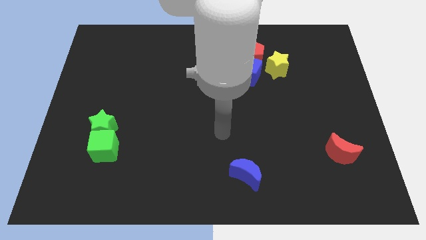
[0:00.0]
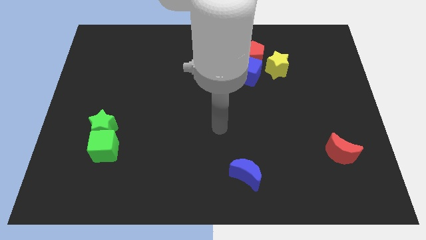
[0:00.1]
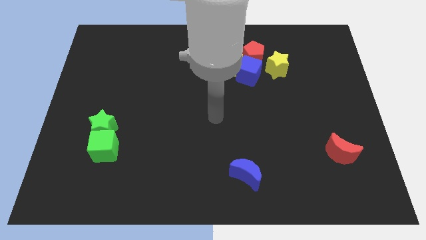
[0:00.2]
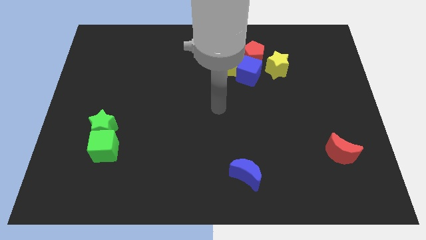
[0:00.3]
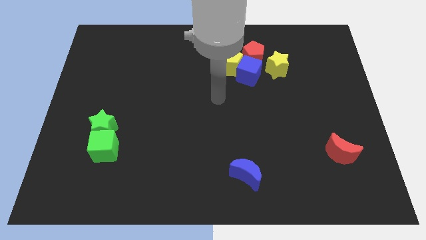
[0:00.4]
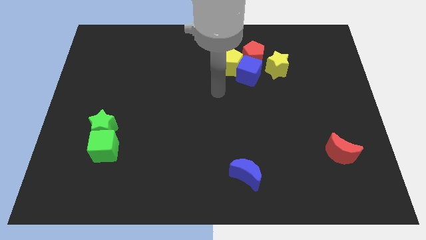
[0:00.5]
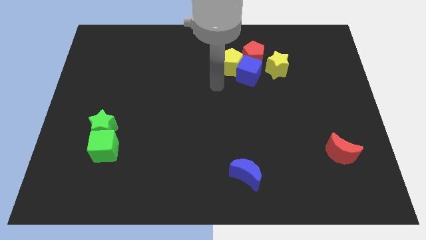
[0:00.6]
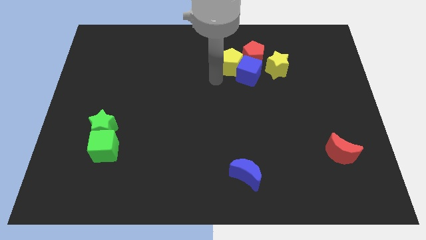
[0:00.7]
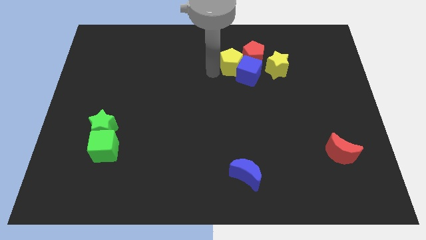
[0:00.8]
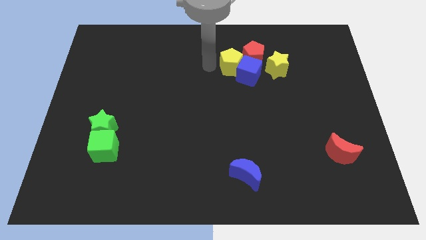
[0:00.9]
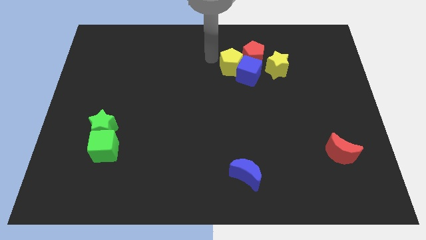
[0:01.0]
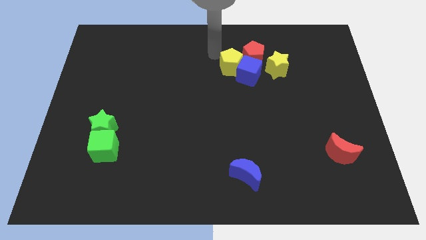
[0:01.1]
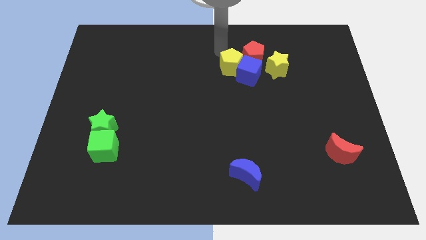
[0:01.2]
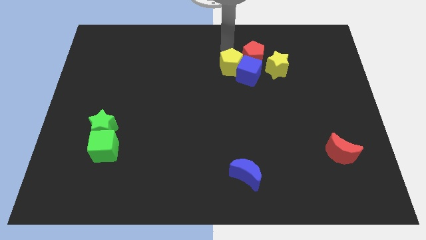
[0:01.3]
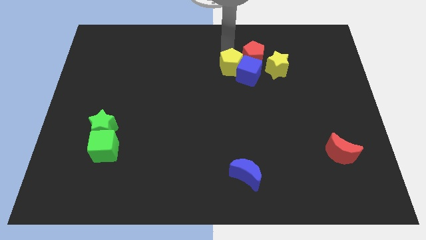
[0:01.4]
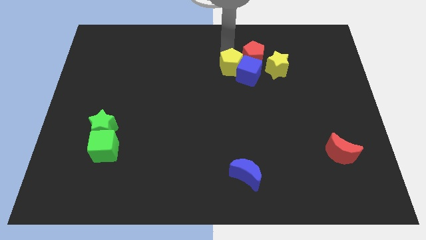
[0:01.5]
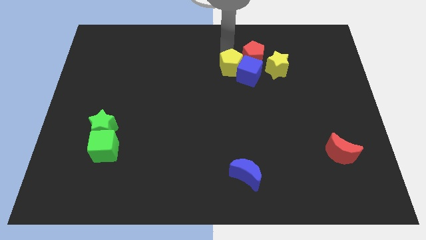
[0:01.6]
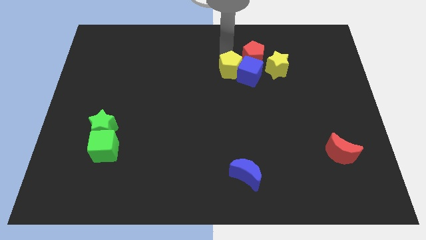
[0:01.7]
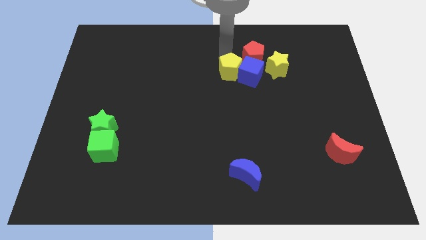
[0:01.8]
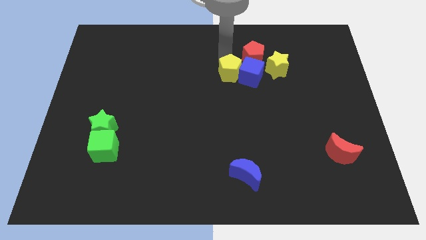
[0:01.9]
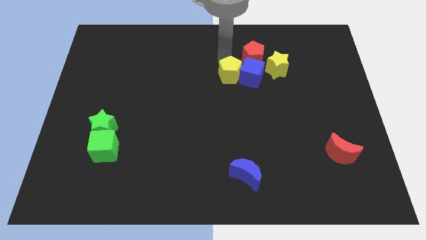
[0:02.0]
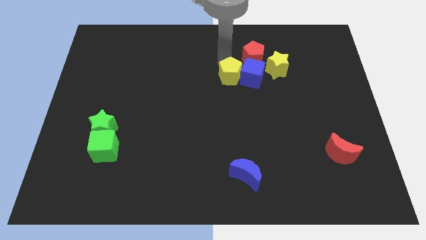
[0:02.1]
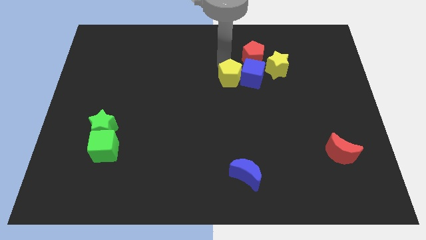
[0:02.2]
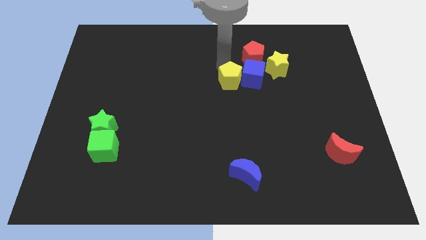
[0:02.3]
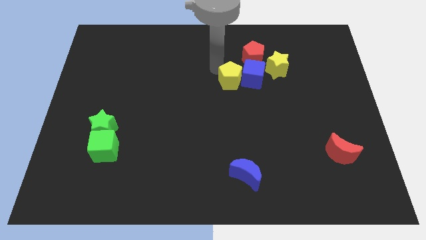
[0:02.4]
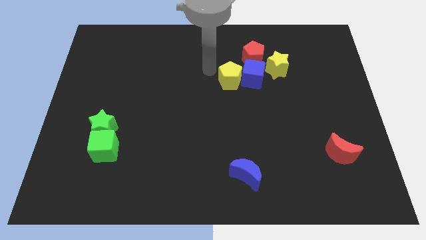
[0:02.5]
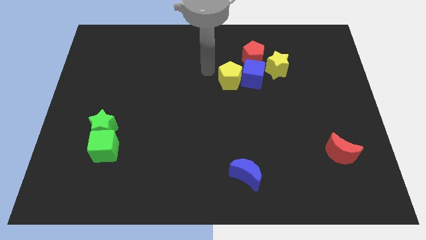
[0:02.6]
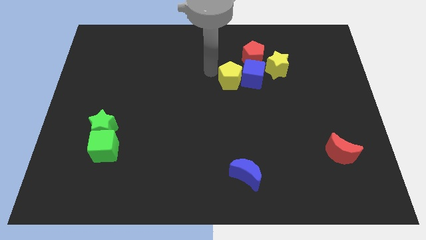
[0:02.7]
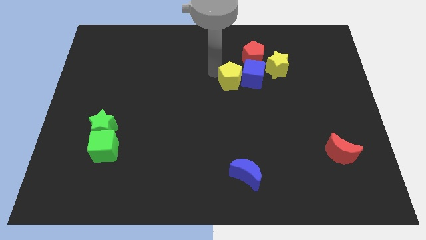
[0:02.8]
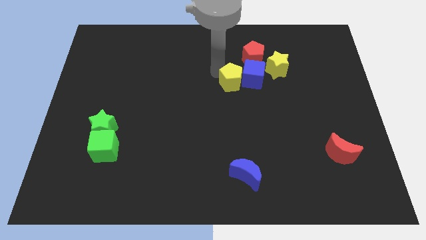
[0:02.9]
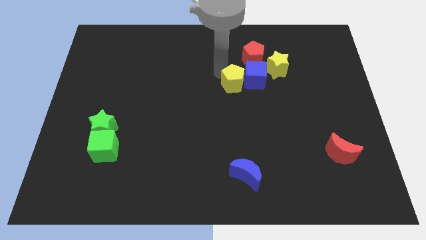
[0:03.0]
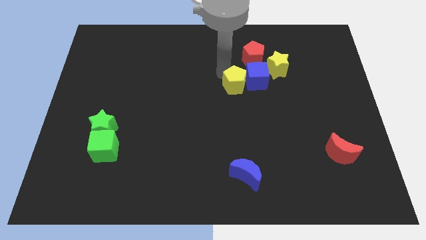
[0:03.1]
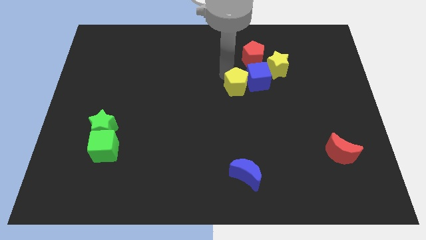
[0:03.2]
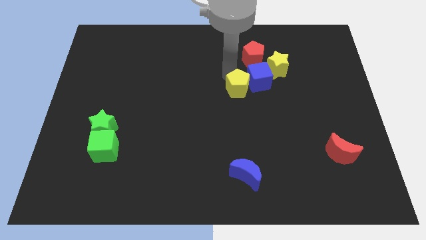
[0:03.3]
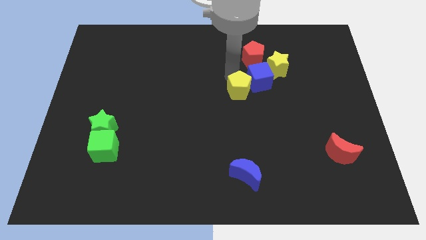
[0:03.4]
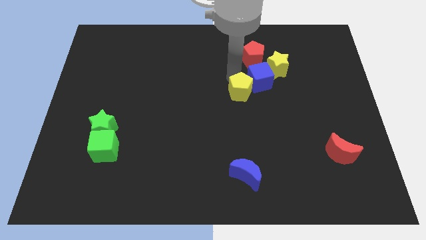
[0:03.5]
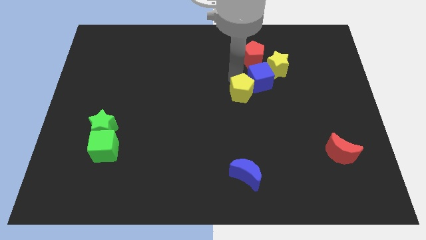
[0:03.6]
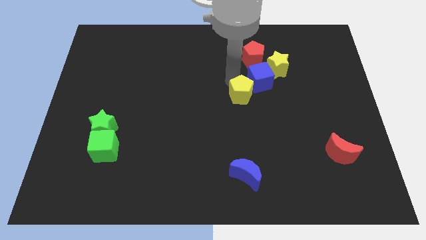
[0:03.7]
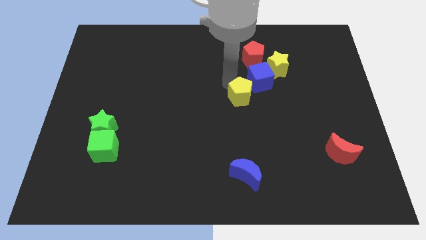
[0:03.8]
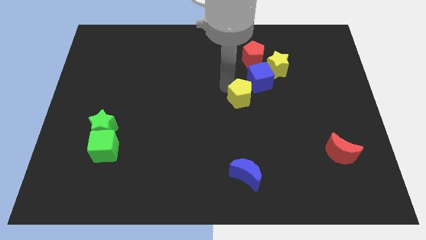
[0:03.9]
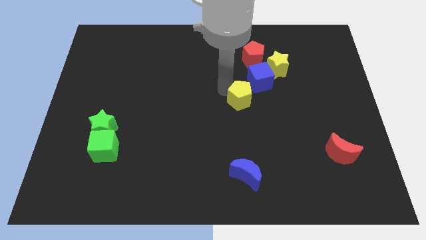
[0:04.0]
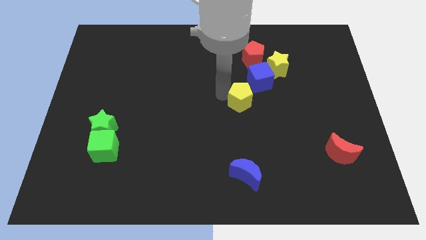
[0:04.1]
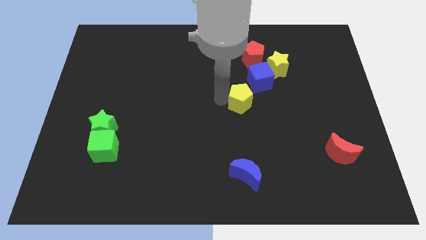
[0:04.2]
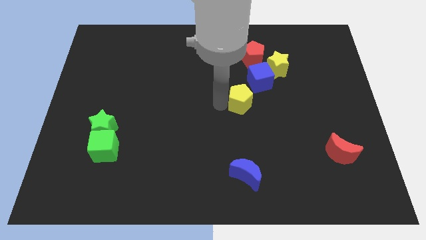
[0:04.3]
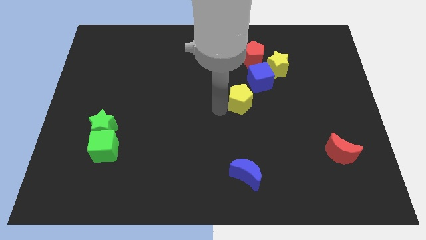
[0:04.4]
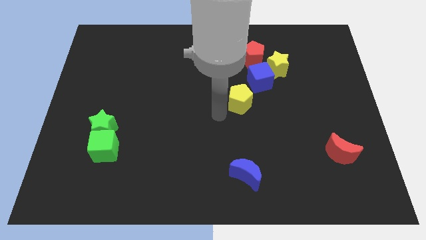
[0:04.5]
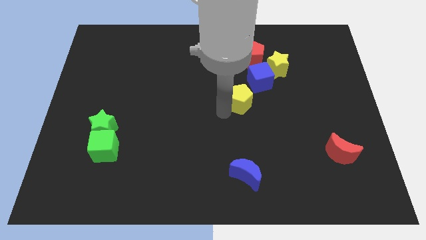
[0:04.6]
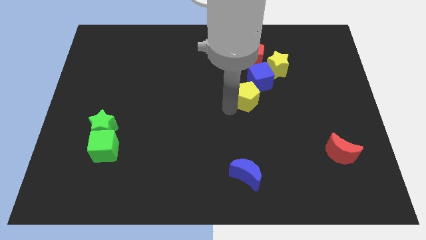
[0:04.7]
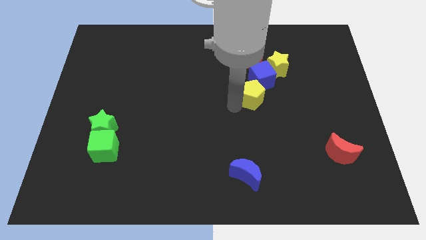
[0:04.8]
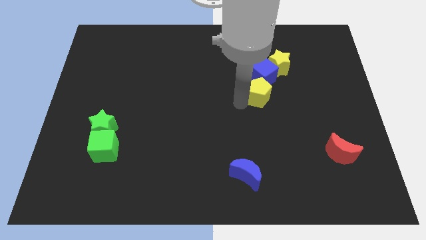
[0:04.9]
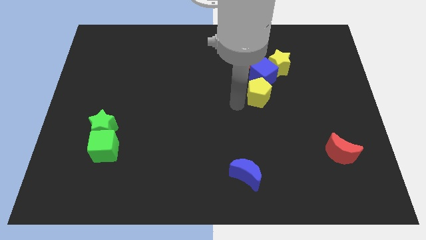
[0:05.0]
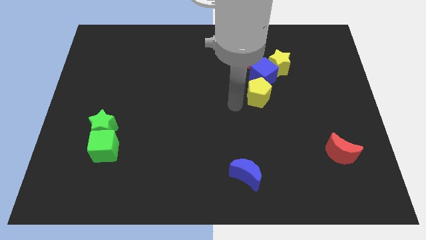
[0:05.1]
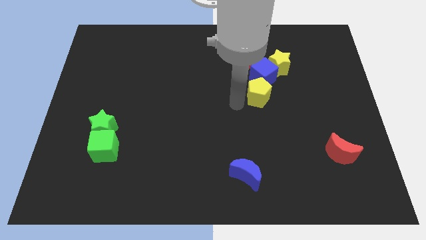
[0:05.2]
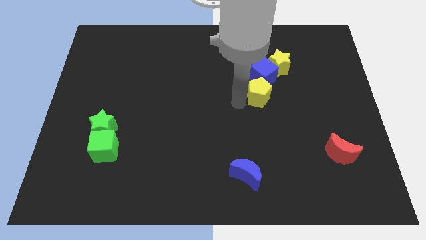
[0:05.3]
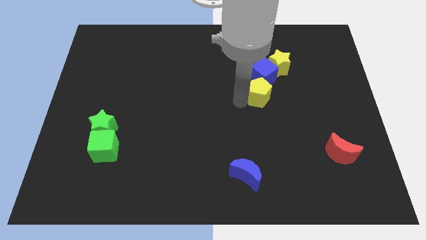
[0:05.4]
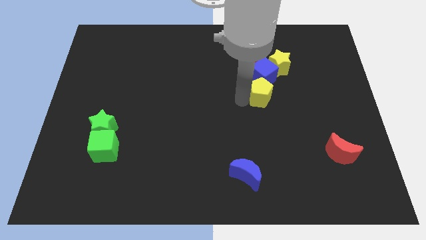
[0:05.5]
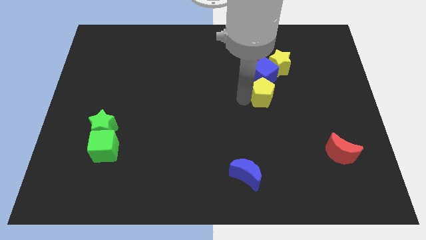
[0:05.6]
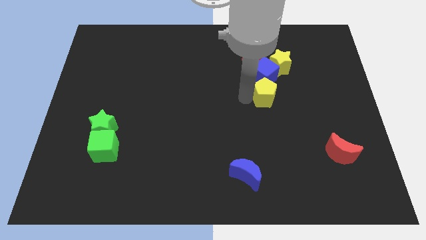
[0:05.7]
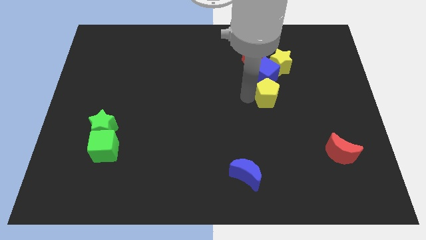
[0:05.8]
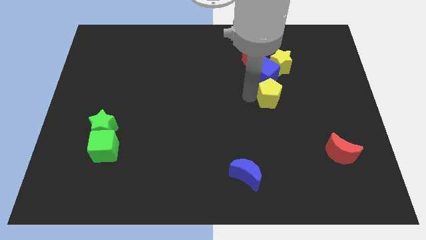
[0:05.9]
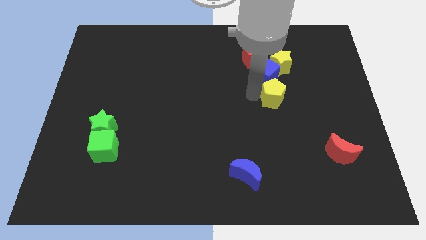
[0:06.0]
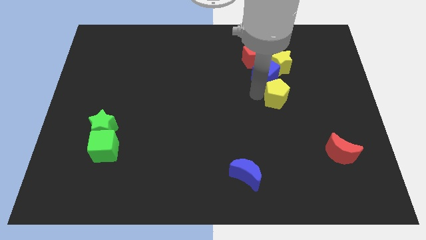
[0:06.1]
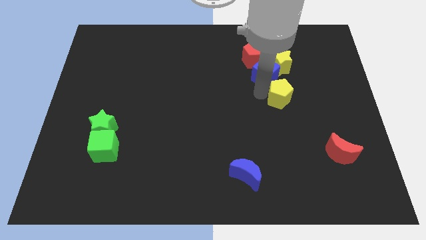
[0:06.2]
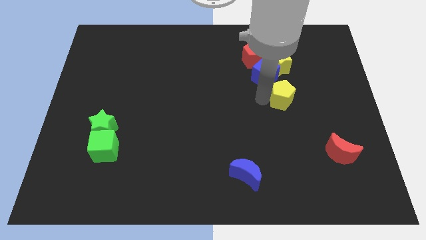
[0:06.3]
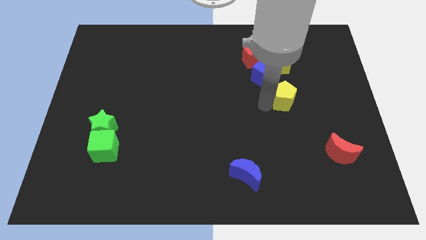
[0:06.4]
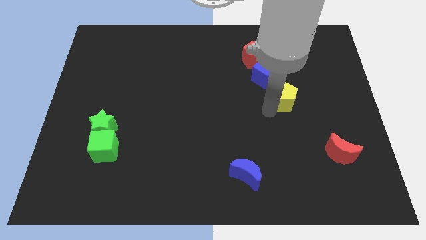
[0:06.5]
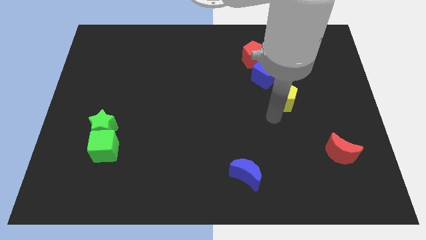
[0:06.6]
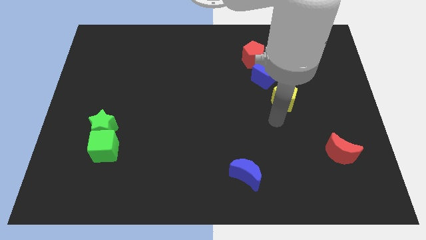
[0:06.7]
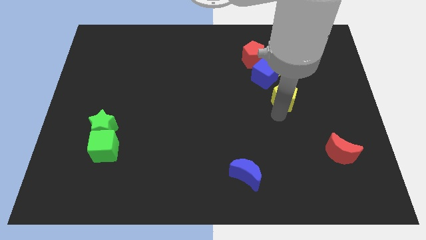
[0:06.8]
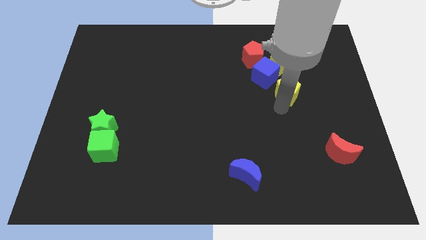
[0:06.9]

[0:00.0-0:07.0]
move the yellow pentagon right somewhat

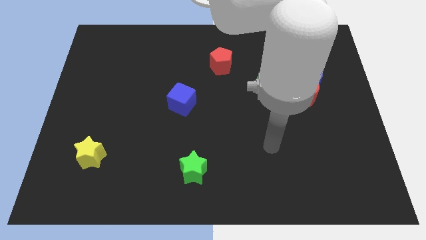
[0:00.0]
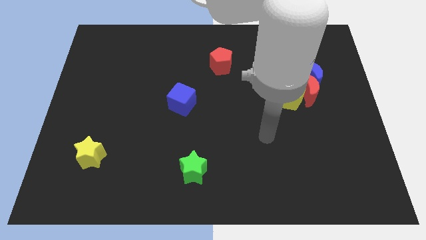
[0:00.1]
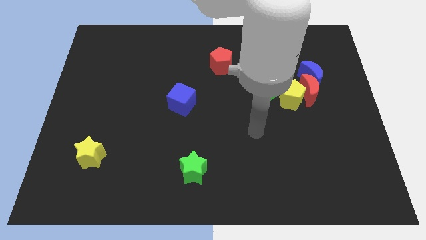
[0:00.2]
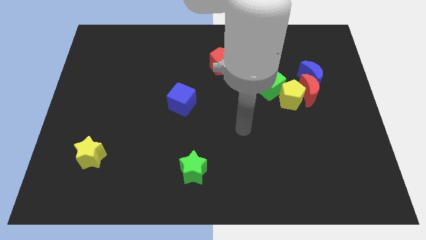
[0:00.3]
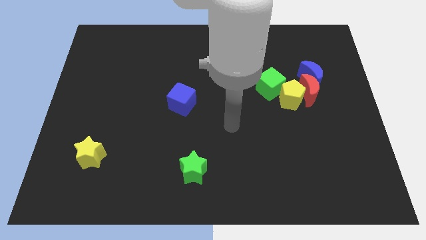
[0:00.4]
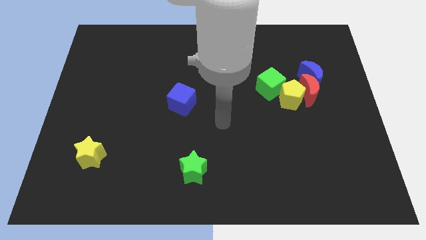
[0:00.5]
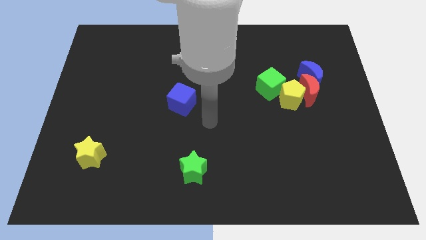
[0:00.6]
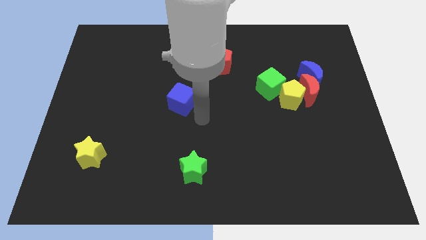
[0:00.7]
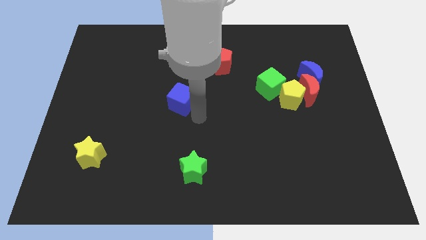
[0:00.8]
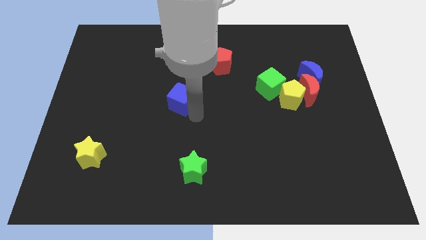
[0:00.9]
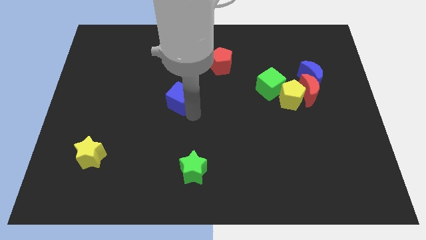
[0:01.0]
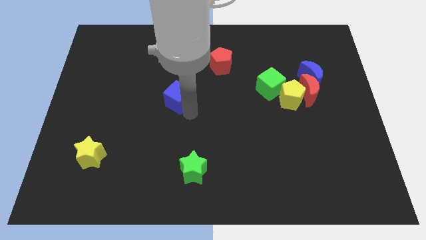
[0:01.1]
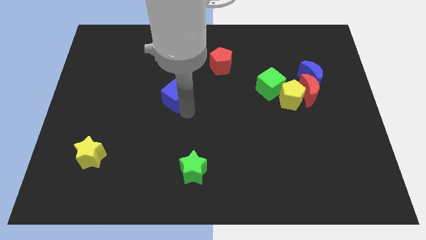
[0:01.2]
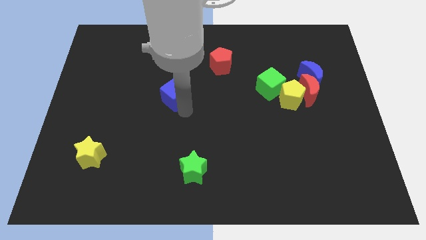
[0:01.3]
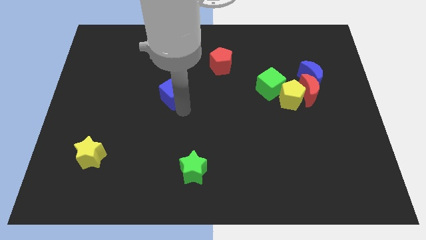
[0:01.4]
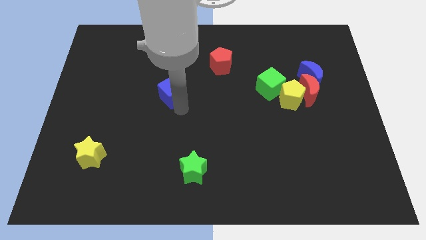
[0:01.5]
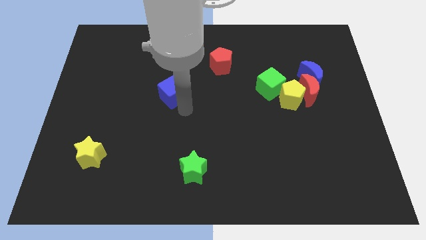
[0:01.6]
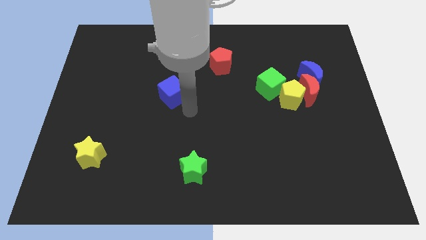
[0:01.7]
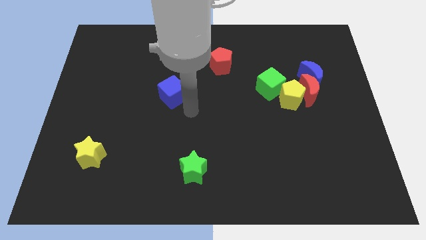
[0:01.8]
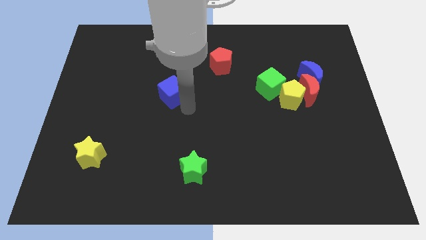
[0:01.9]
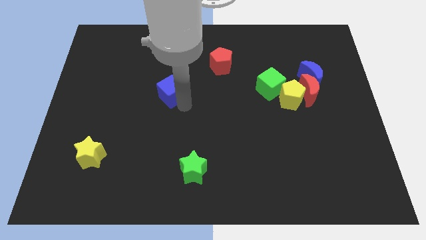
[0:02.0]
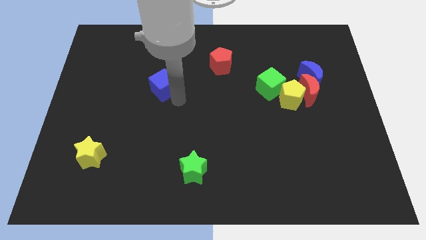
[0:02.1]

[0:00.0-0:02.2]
slightly move the blue cube up and then left
